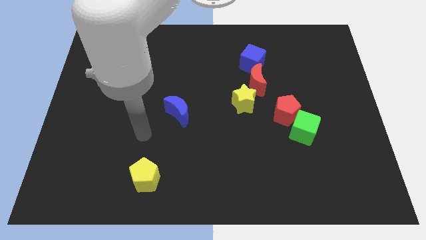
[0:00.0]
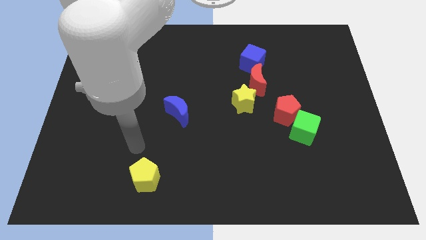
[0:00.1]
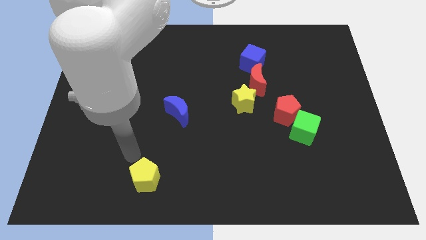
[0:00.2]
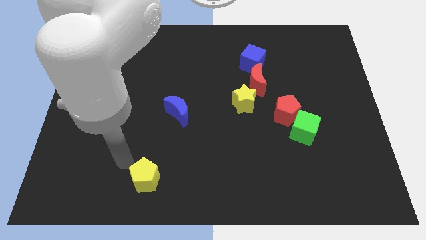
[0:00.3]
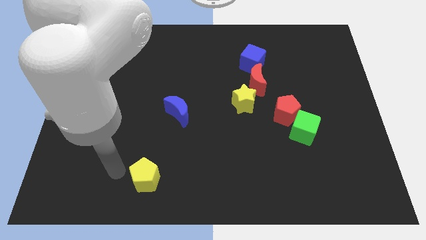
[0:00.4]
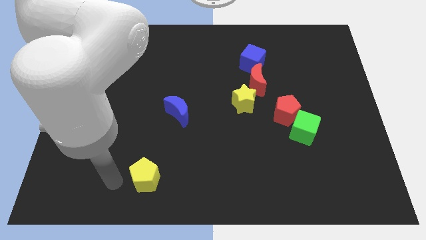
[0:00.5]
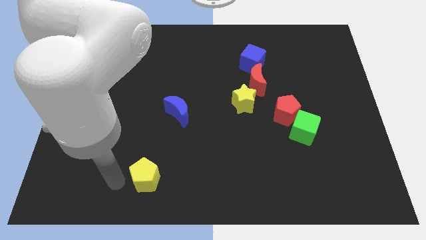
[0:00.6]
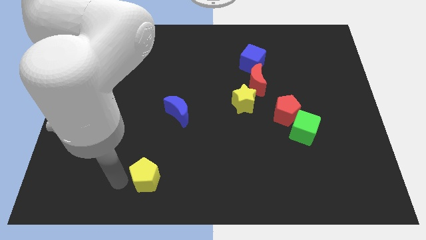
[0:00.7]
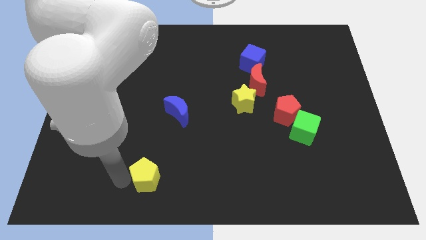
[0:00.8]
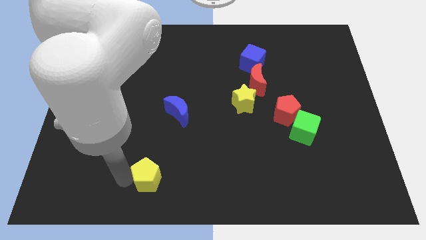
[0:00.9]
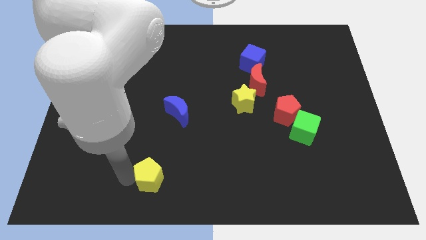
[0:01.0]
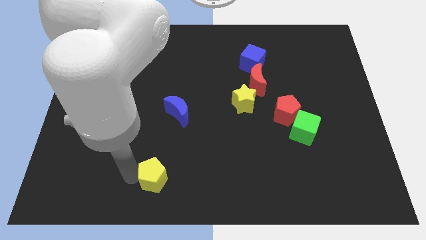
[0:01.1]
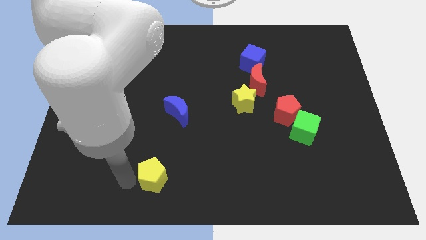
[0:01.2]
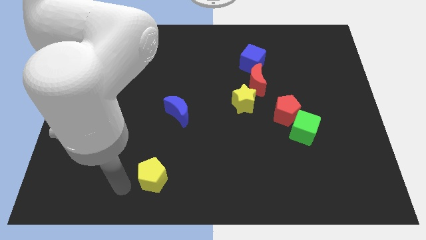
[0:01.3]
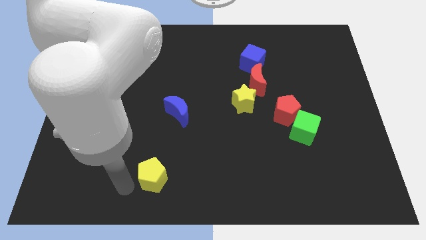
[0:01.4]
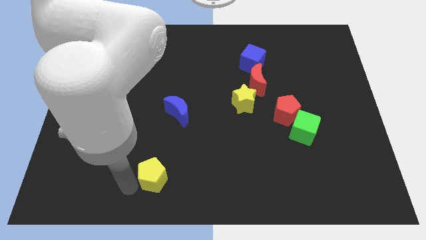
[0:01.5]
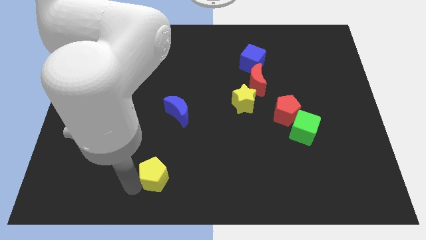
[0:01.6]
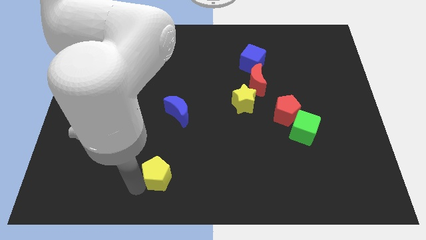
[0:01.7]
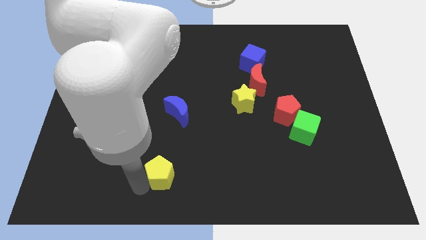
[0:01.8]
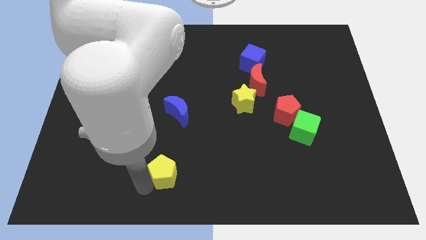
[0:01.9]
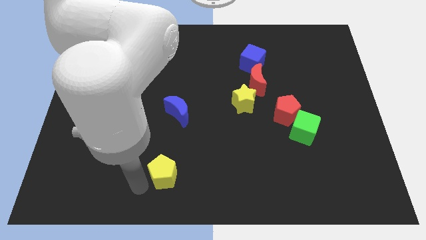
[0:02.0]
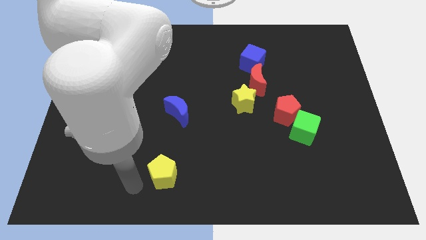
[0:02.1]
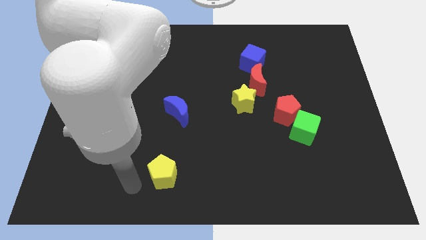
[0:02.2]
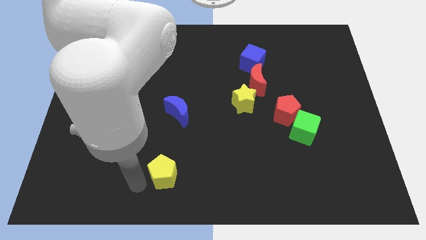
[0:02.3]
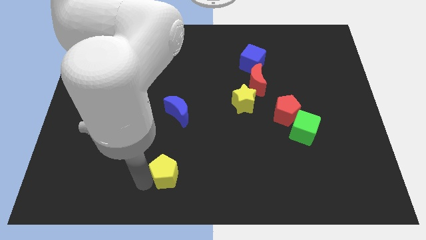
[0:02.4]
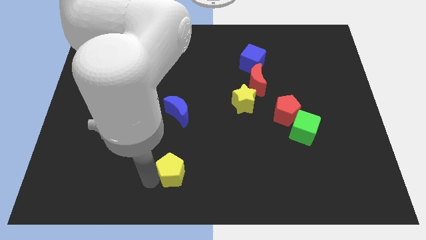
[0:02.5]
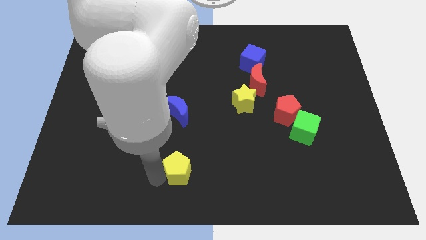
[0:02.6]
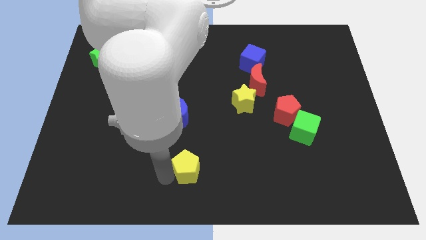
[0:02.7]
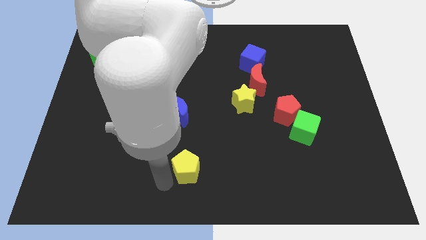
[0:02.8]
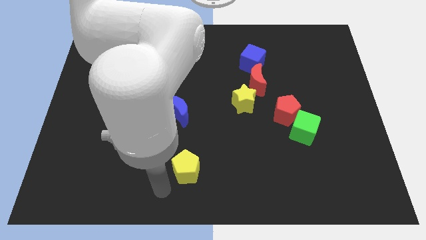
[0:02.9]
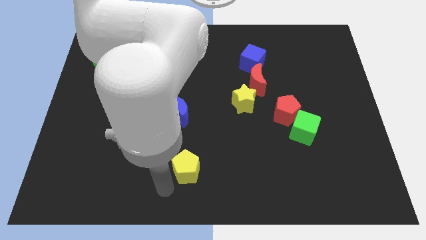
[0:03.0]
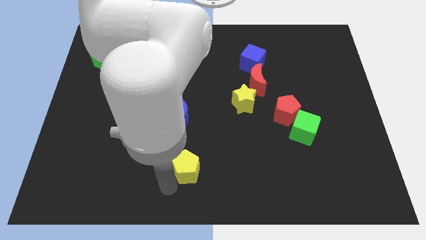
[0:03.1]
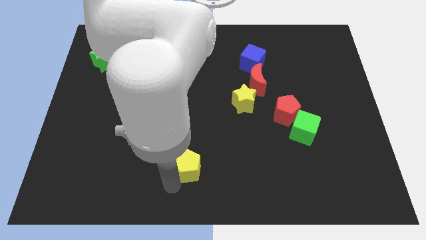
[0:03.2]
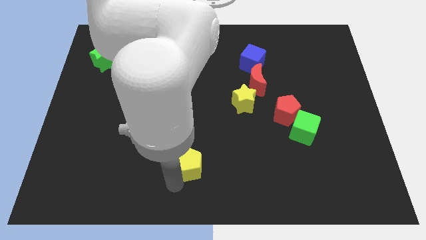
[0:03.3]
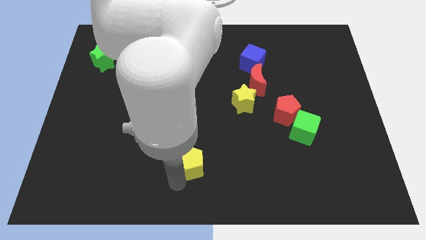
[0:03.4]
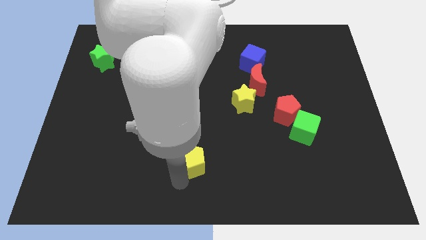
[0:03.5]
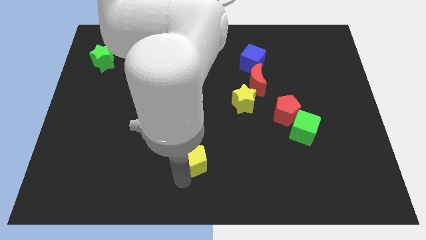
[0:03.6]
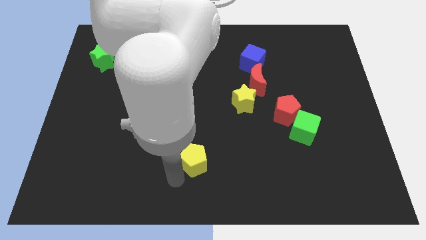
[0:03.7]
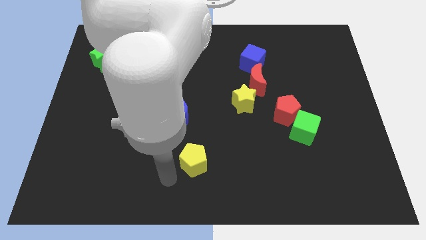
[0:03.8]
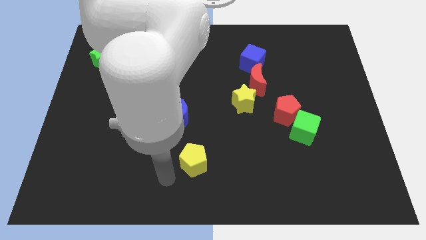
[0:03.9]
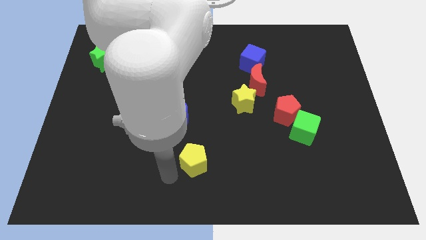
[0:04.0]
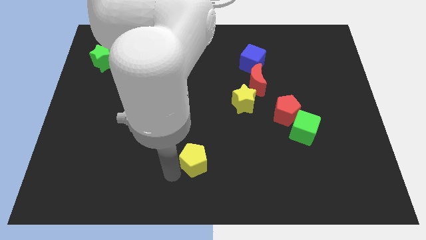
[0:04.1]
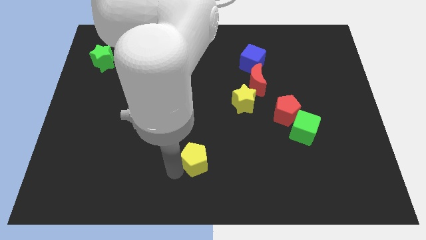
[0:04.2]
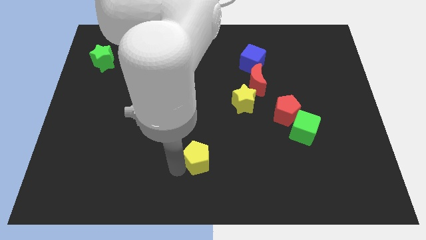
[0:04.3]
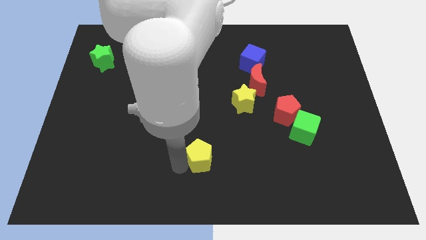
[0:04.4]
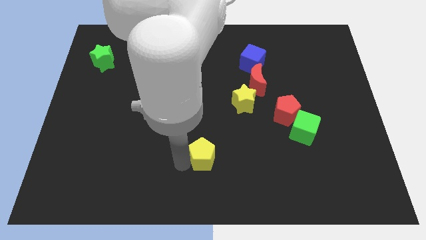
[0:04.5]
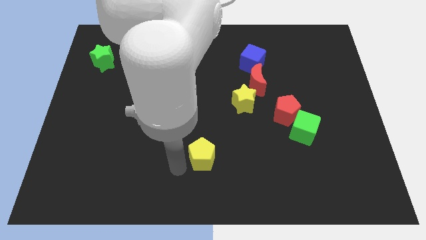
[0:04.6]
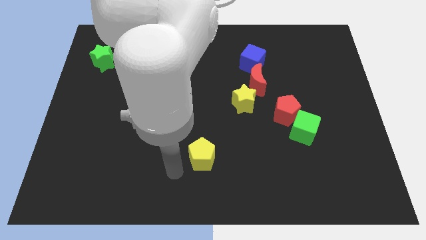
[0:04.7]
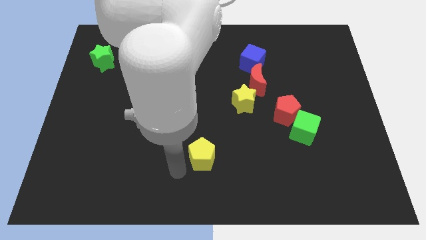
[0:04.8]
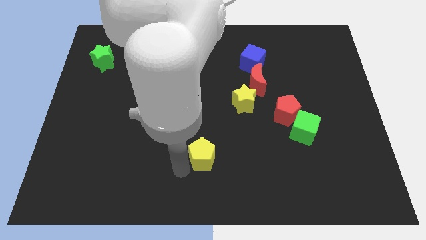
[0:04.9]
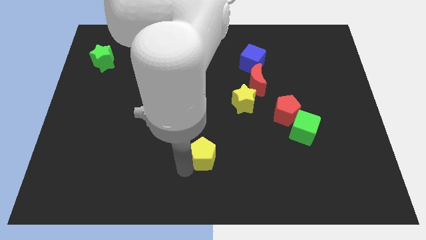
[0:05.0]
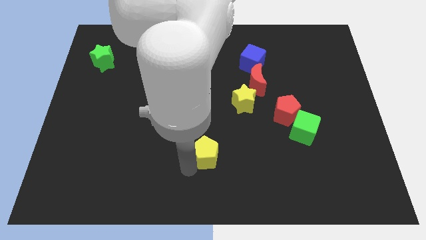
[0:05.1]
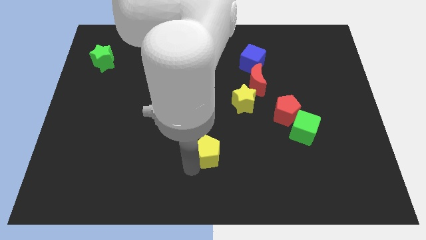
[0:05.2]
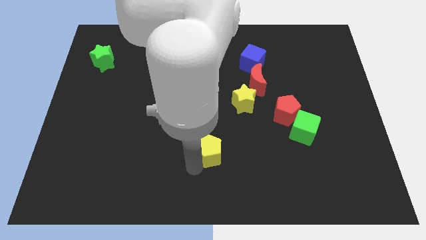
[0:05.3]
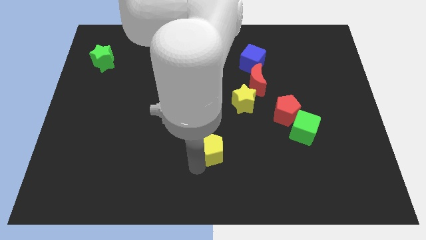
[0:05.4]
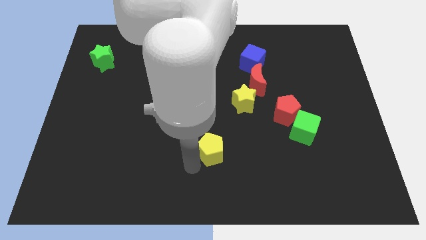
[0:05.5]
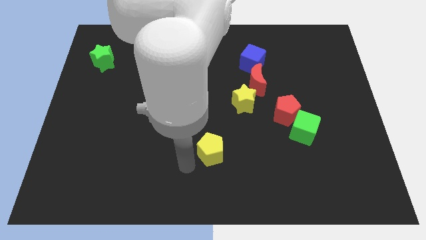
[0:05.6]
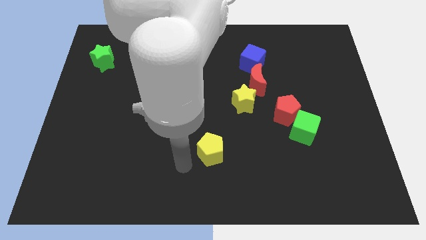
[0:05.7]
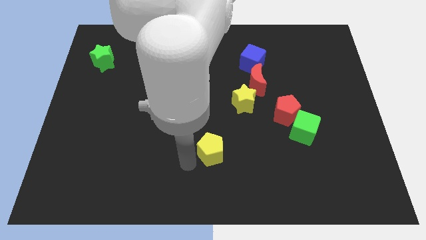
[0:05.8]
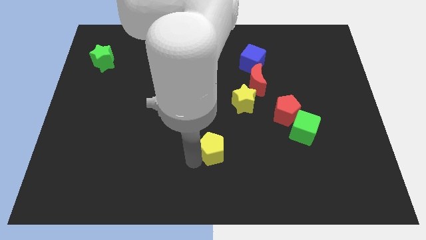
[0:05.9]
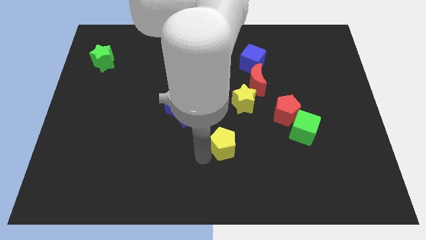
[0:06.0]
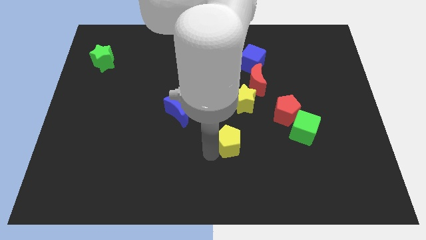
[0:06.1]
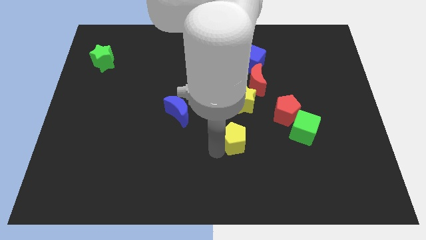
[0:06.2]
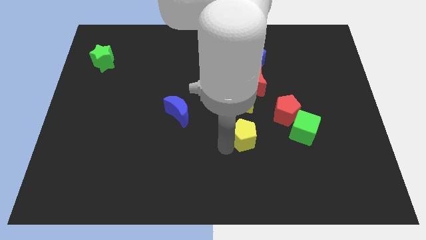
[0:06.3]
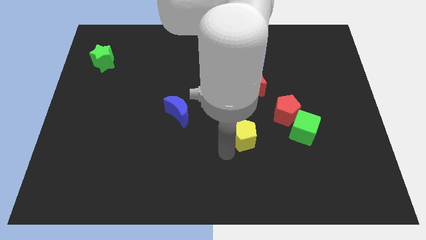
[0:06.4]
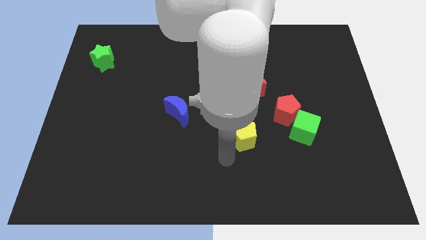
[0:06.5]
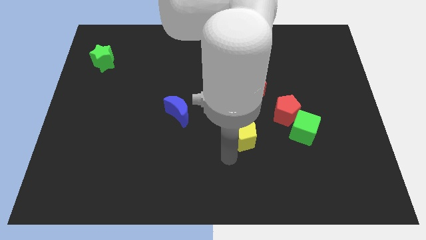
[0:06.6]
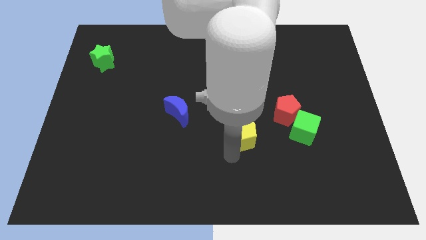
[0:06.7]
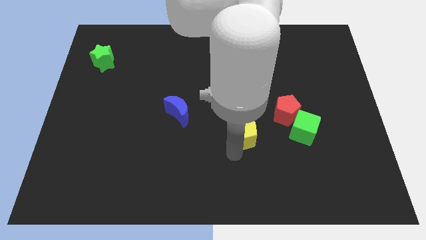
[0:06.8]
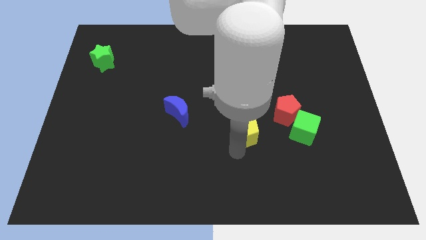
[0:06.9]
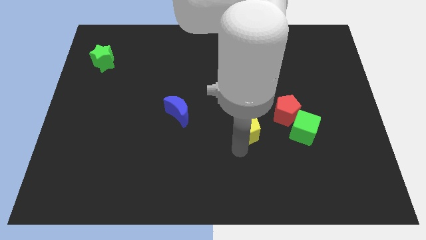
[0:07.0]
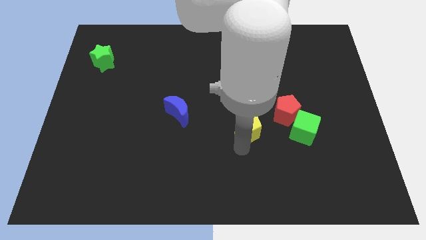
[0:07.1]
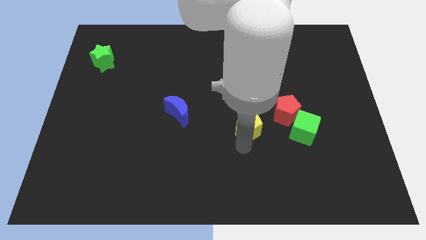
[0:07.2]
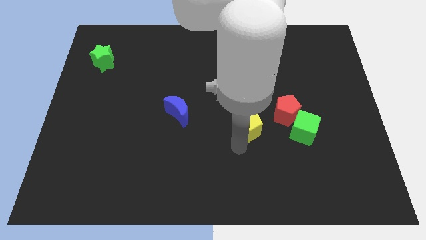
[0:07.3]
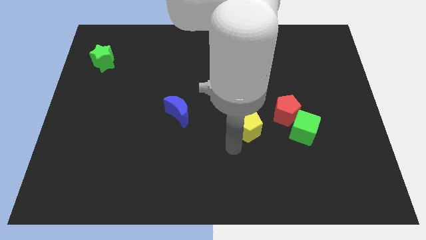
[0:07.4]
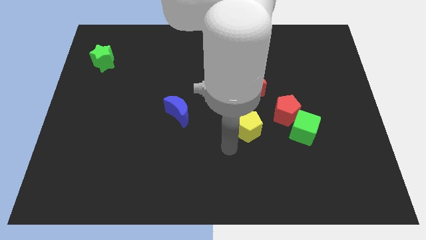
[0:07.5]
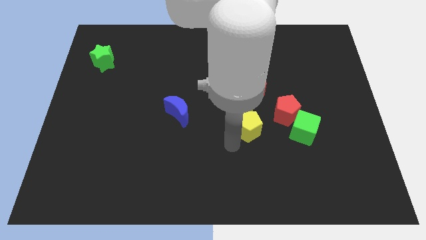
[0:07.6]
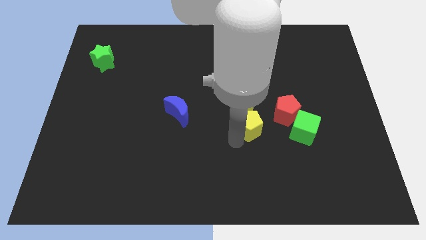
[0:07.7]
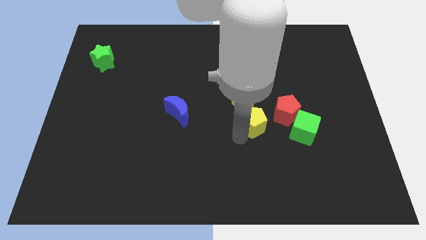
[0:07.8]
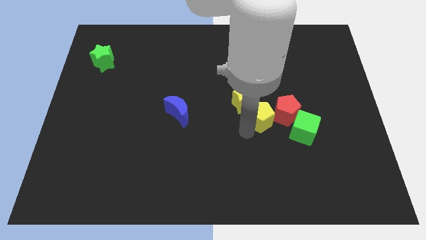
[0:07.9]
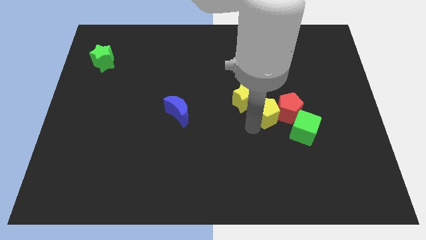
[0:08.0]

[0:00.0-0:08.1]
put the yellow pentagon to the right of the yellow star
